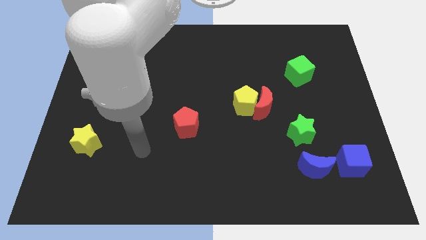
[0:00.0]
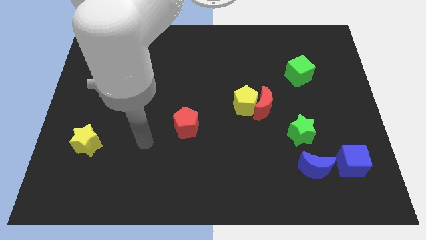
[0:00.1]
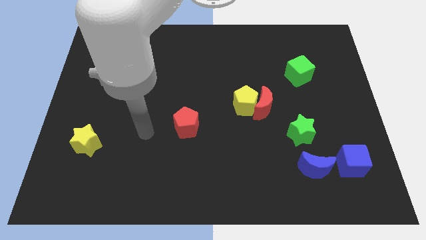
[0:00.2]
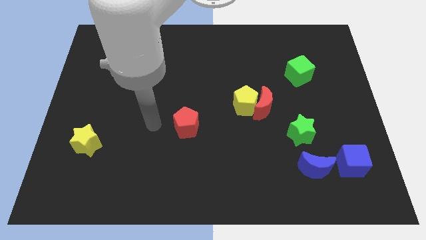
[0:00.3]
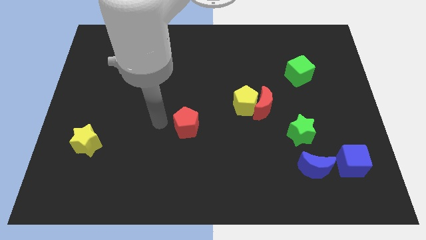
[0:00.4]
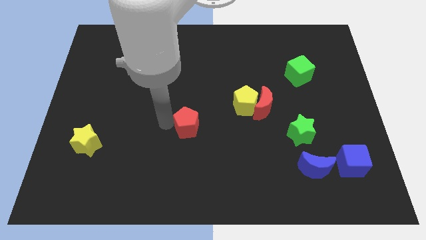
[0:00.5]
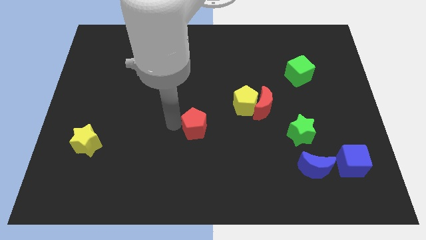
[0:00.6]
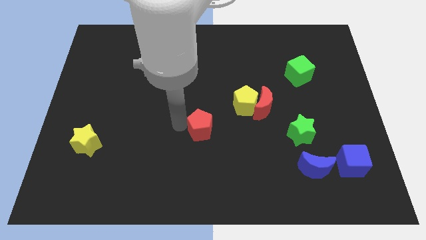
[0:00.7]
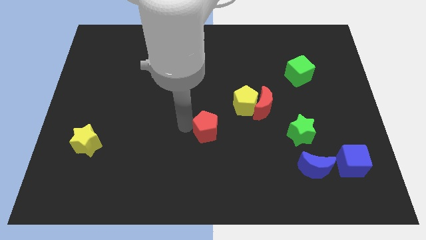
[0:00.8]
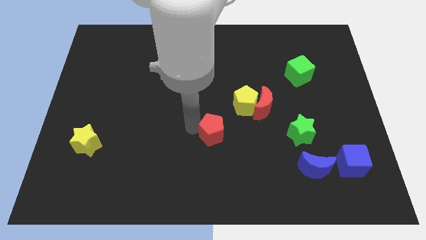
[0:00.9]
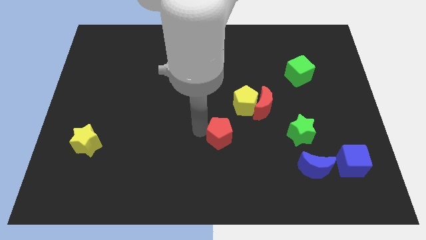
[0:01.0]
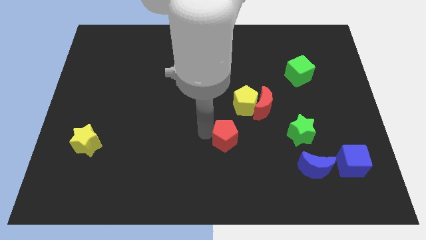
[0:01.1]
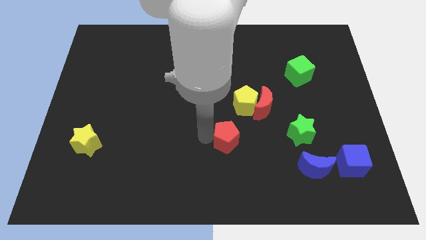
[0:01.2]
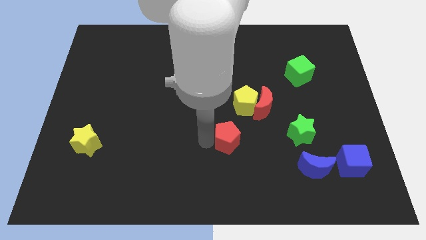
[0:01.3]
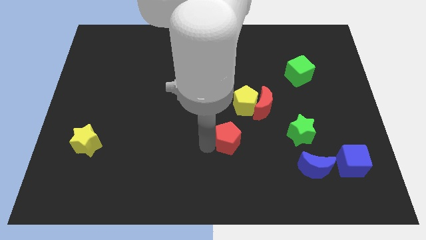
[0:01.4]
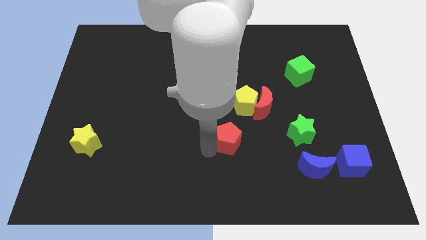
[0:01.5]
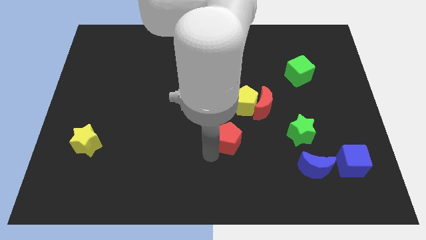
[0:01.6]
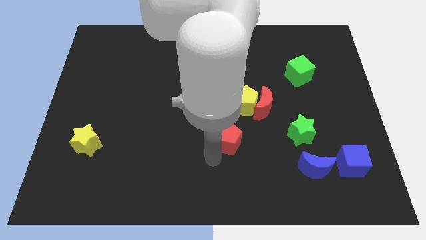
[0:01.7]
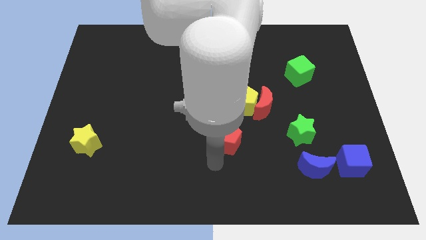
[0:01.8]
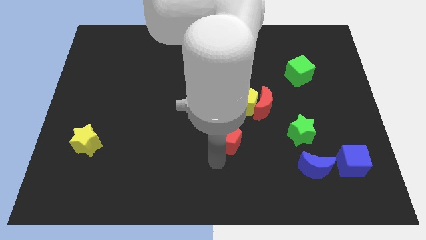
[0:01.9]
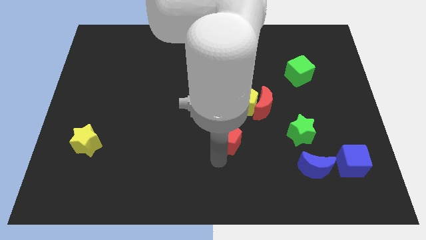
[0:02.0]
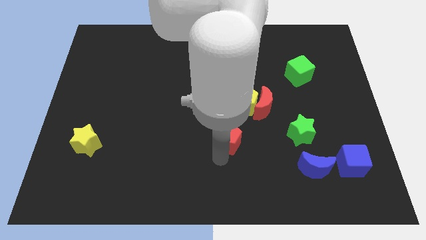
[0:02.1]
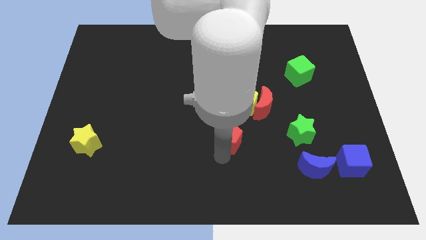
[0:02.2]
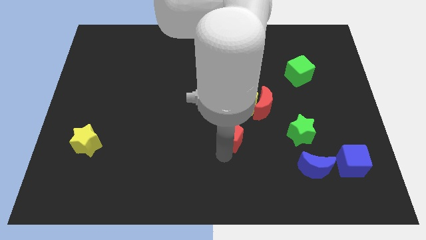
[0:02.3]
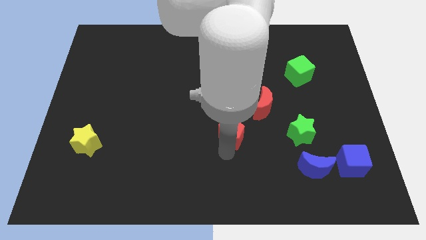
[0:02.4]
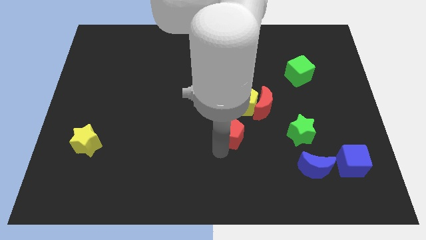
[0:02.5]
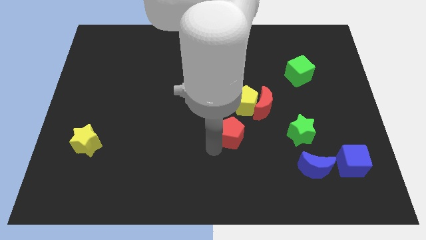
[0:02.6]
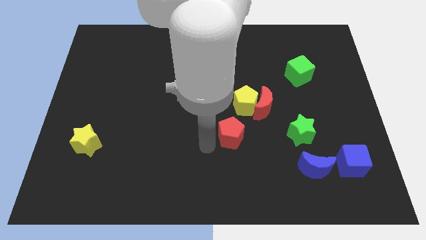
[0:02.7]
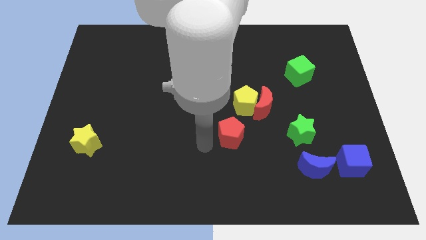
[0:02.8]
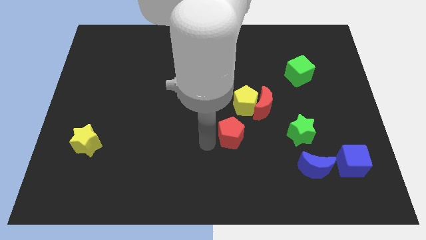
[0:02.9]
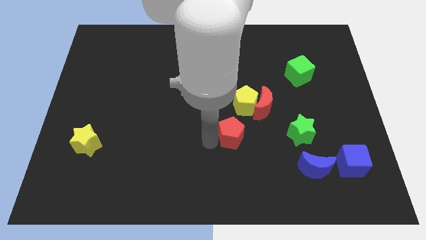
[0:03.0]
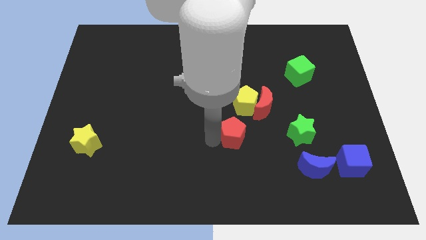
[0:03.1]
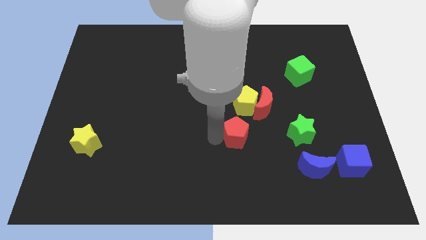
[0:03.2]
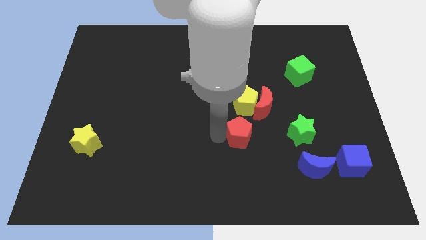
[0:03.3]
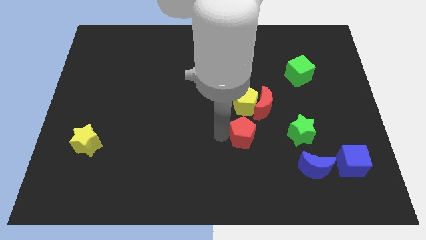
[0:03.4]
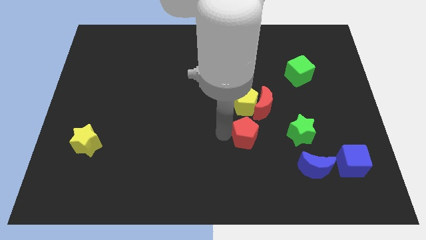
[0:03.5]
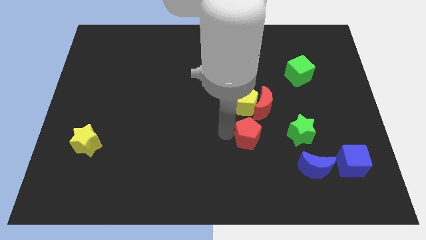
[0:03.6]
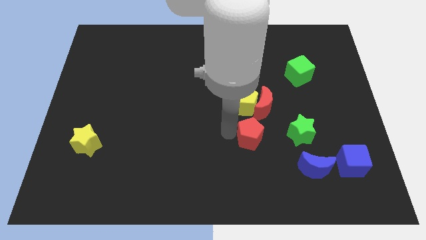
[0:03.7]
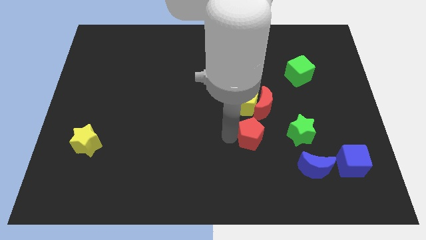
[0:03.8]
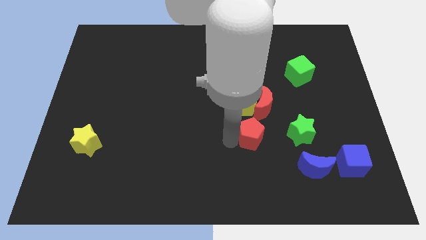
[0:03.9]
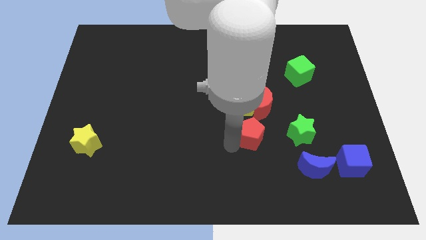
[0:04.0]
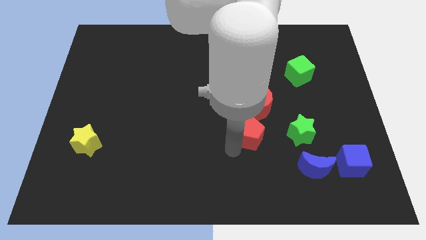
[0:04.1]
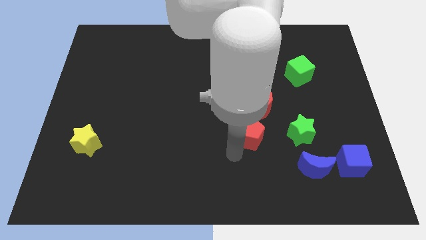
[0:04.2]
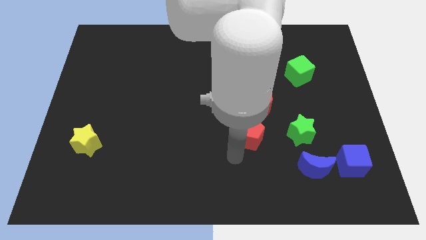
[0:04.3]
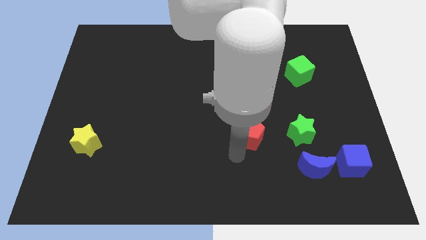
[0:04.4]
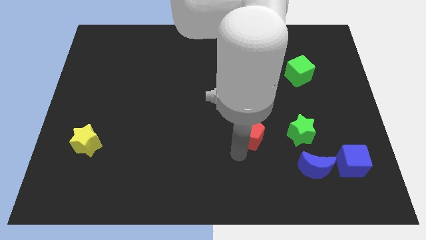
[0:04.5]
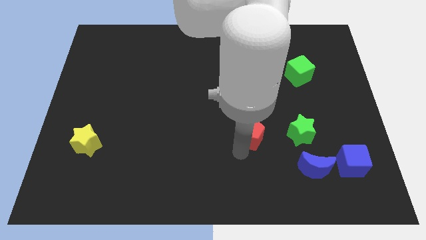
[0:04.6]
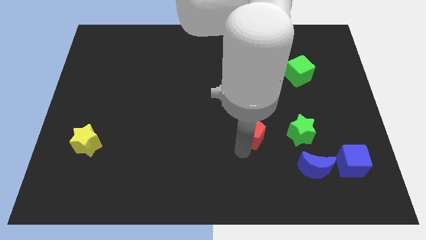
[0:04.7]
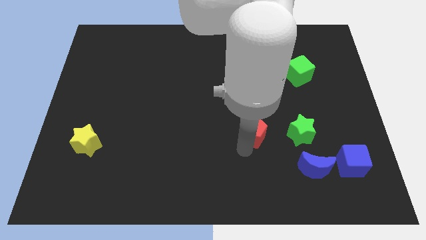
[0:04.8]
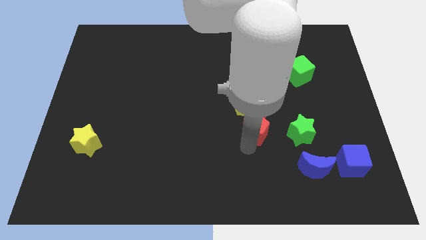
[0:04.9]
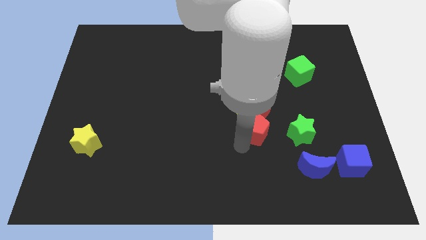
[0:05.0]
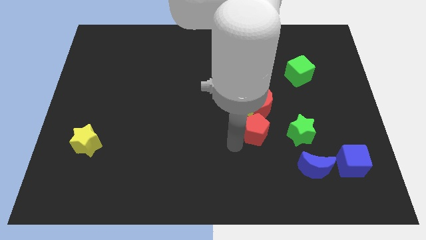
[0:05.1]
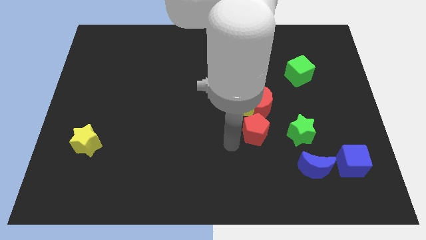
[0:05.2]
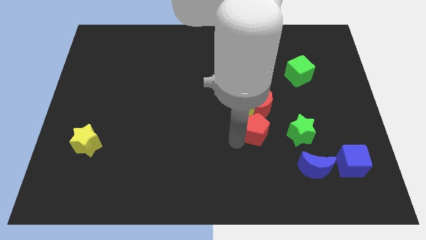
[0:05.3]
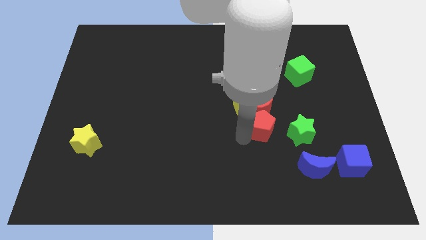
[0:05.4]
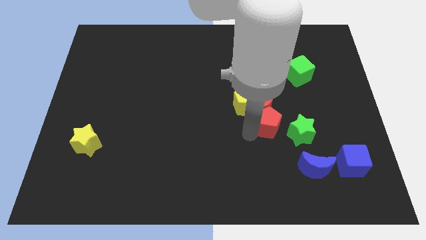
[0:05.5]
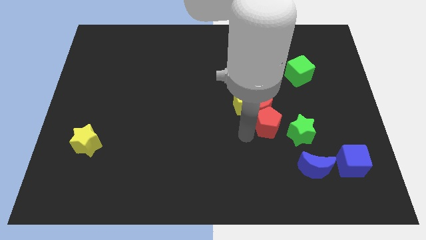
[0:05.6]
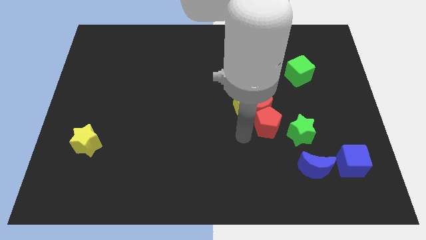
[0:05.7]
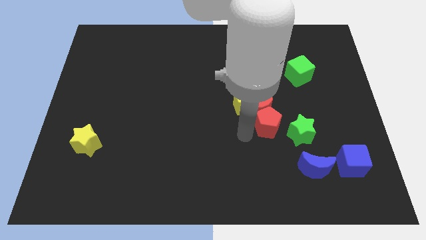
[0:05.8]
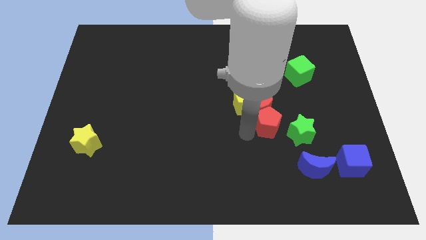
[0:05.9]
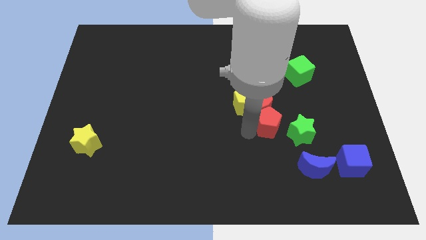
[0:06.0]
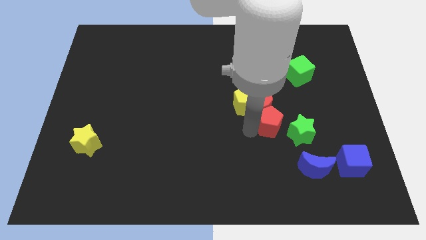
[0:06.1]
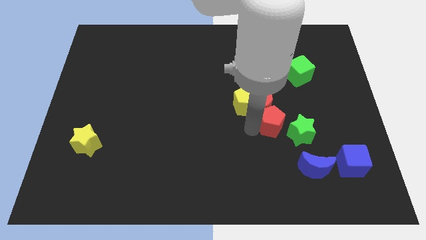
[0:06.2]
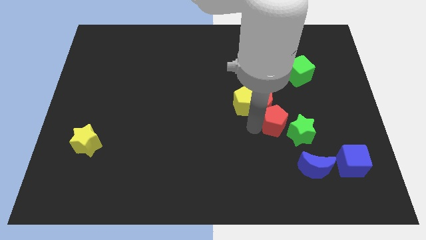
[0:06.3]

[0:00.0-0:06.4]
move the red pentagon right

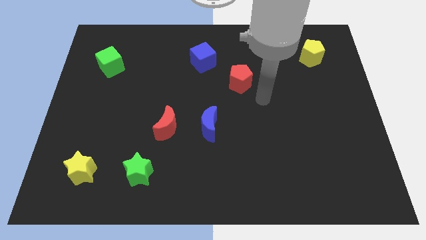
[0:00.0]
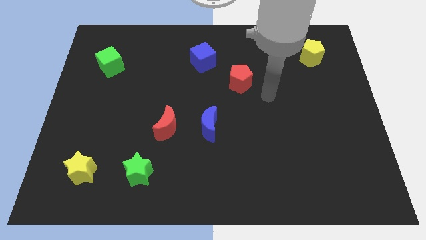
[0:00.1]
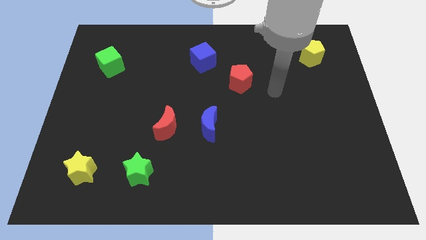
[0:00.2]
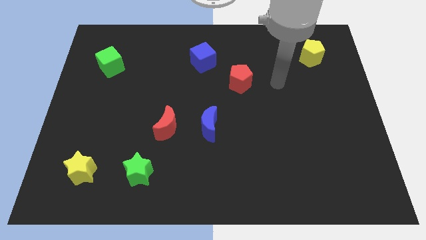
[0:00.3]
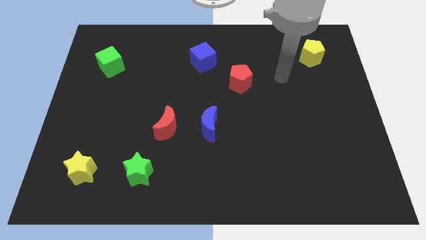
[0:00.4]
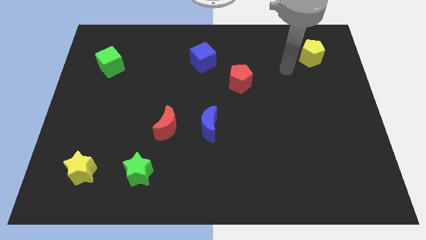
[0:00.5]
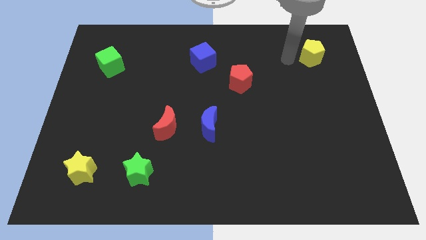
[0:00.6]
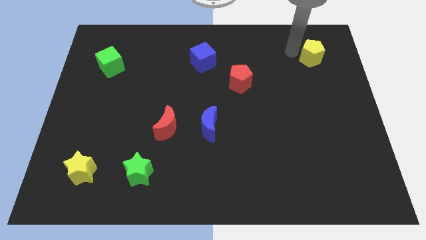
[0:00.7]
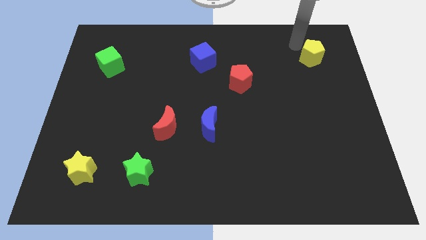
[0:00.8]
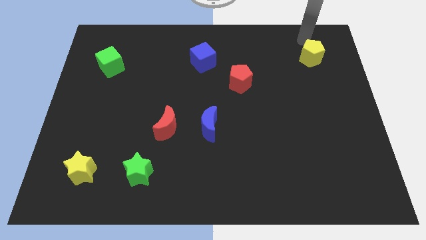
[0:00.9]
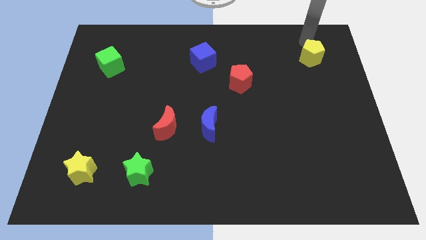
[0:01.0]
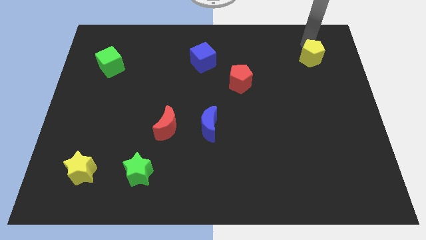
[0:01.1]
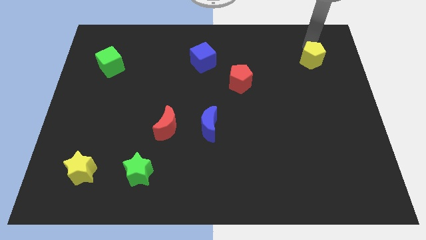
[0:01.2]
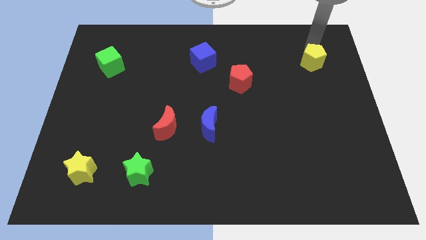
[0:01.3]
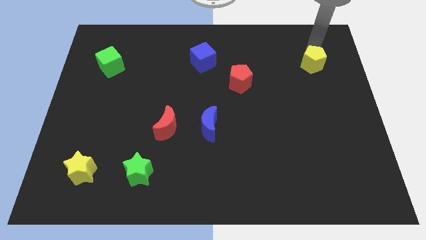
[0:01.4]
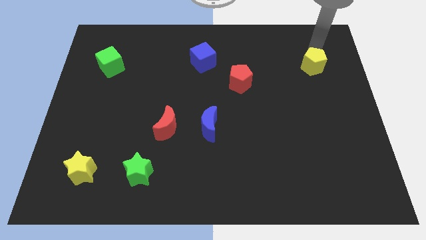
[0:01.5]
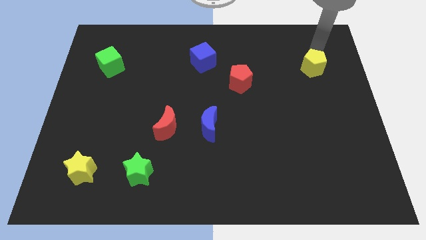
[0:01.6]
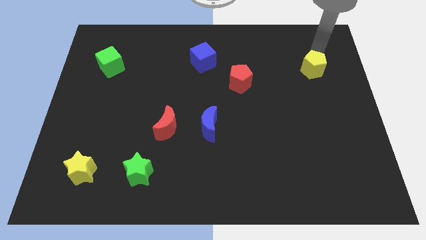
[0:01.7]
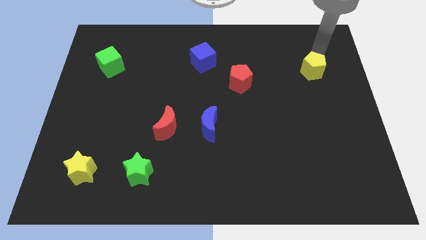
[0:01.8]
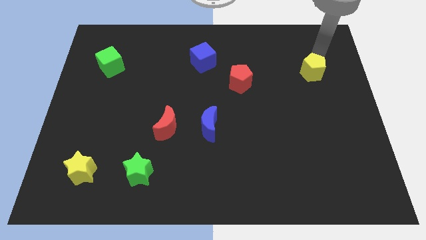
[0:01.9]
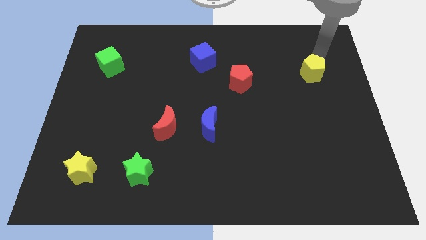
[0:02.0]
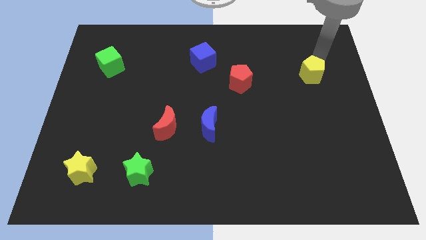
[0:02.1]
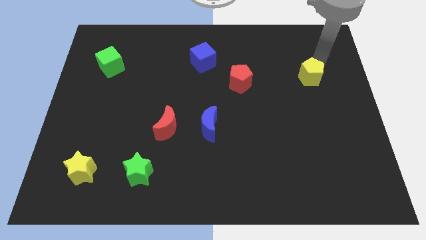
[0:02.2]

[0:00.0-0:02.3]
slide the yellow pentagon somewhat down
